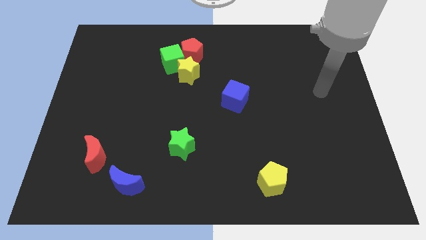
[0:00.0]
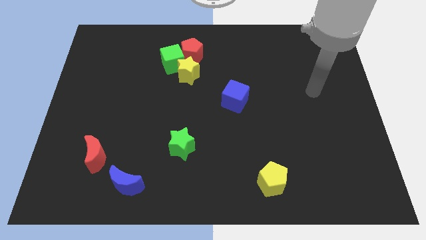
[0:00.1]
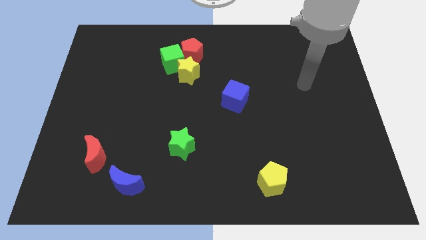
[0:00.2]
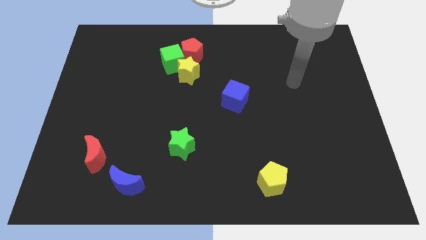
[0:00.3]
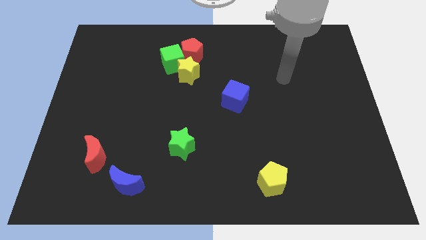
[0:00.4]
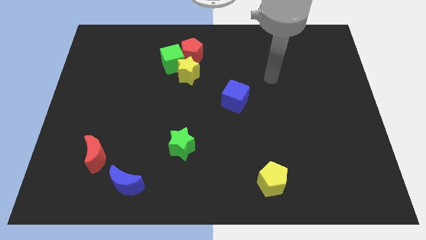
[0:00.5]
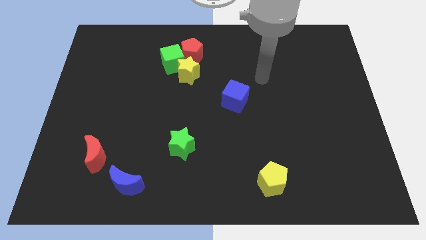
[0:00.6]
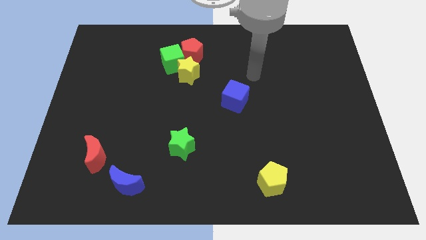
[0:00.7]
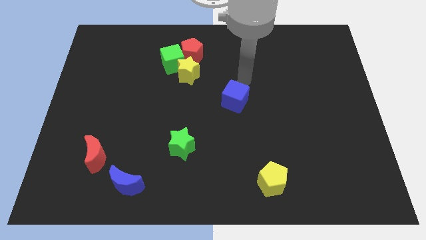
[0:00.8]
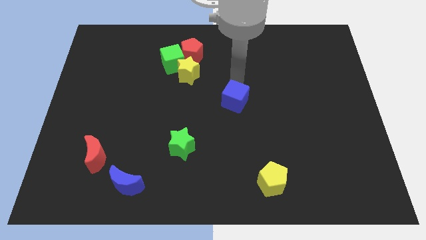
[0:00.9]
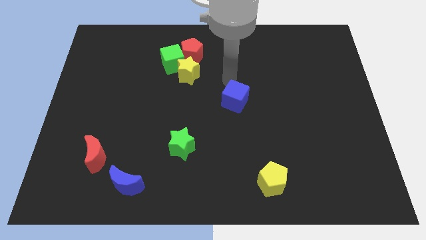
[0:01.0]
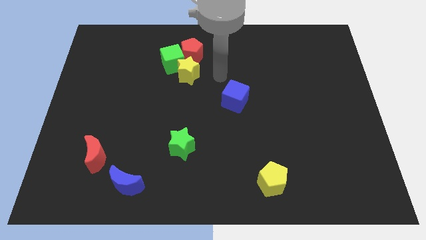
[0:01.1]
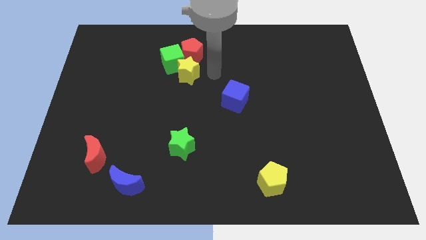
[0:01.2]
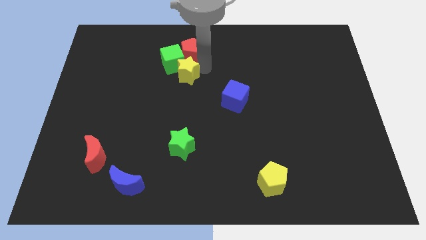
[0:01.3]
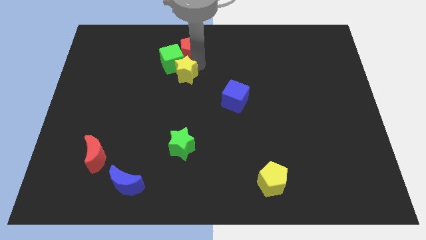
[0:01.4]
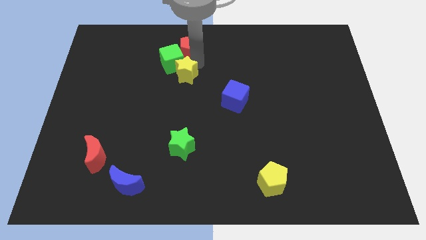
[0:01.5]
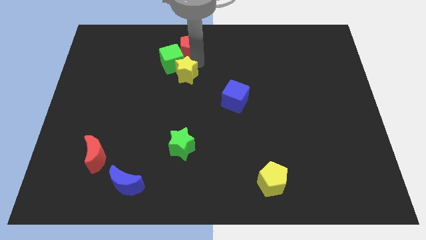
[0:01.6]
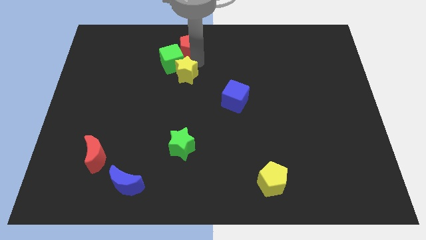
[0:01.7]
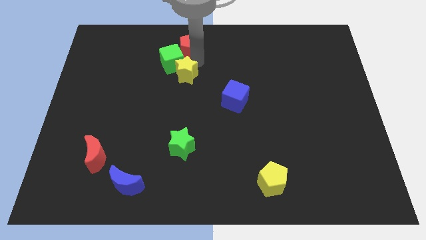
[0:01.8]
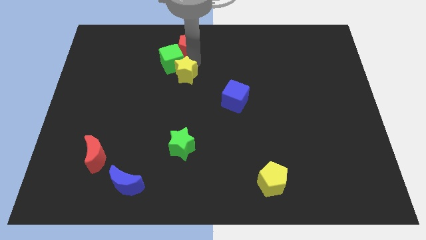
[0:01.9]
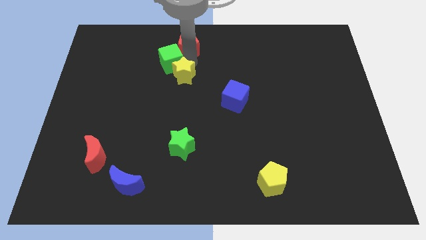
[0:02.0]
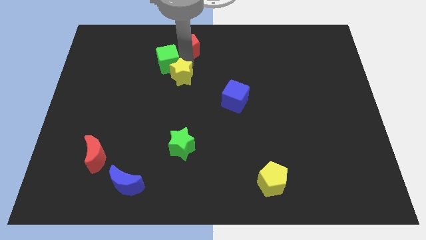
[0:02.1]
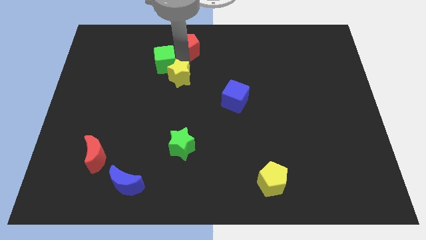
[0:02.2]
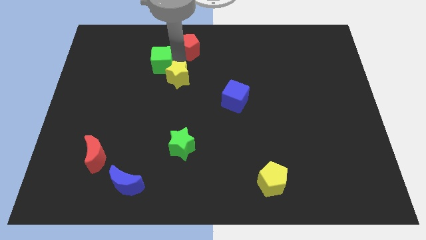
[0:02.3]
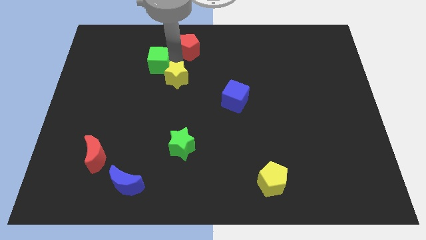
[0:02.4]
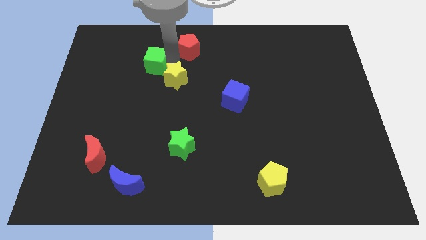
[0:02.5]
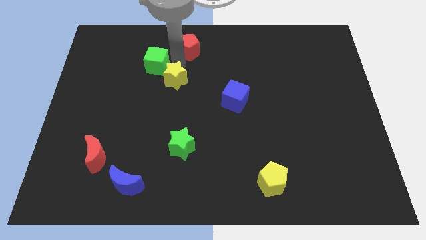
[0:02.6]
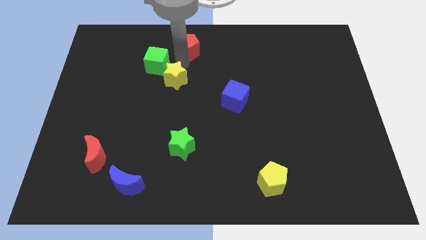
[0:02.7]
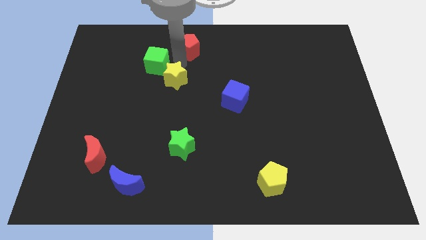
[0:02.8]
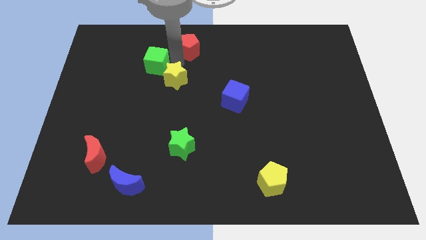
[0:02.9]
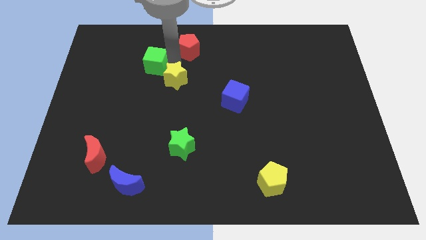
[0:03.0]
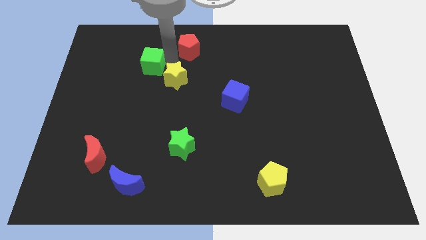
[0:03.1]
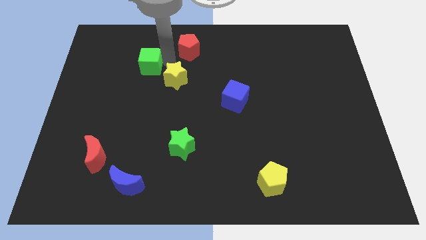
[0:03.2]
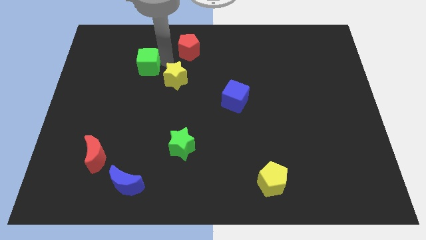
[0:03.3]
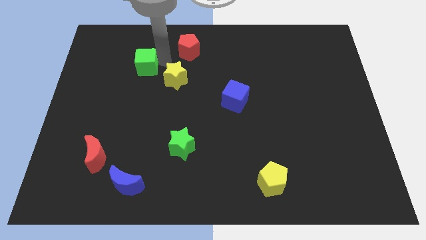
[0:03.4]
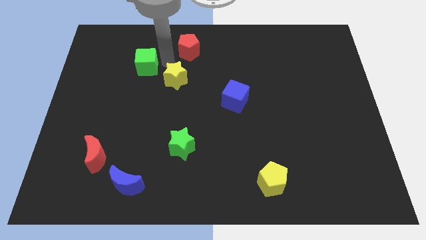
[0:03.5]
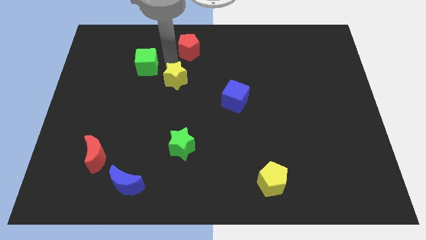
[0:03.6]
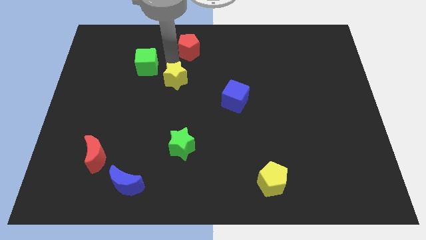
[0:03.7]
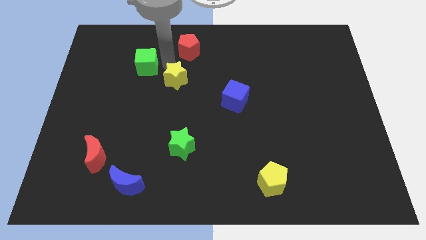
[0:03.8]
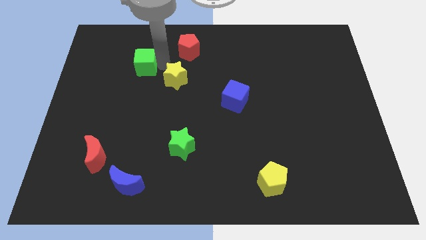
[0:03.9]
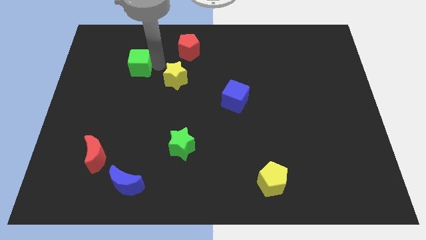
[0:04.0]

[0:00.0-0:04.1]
pull the green cube apart from the red pentagon and yellow star

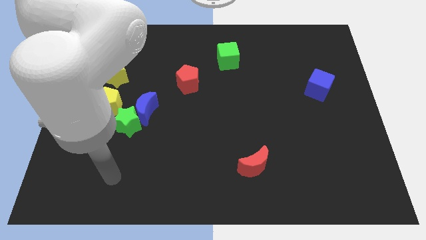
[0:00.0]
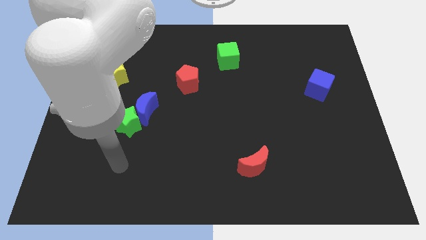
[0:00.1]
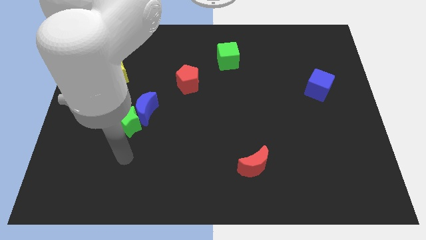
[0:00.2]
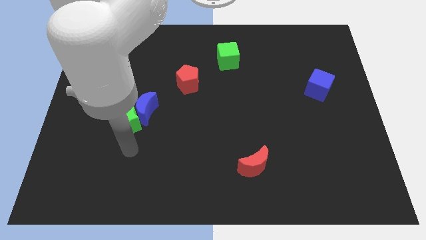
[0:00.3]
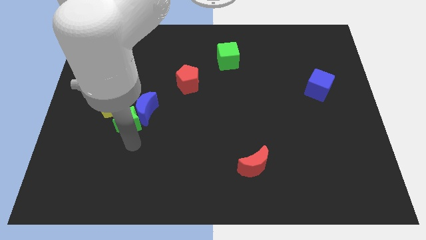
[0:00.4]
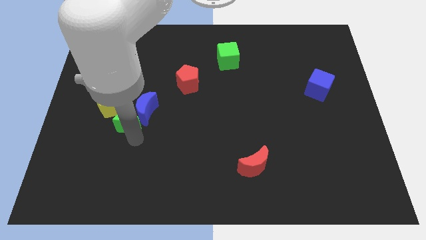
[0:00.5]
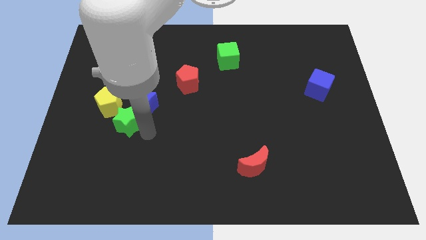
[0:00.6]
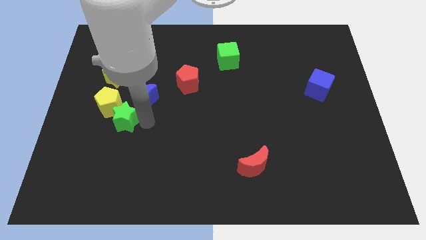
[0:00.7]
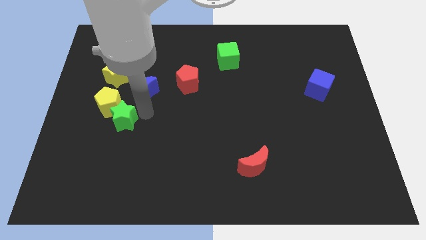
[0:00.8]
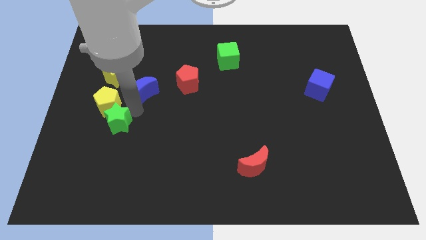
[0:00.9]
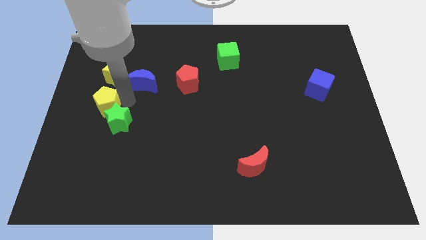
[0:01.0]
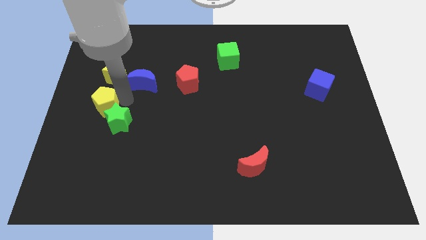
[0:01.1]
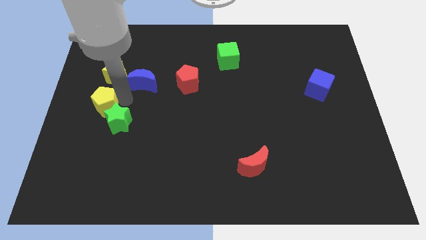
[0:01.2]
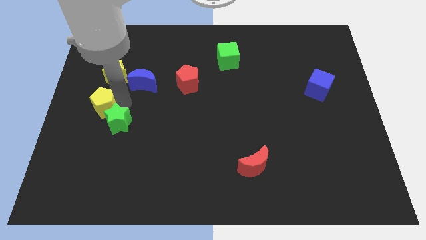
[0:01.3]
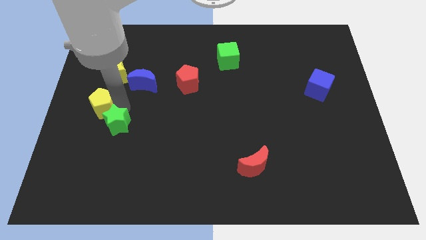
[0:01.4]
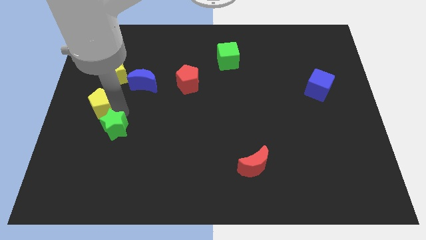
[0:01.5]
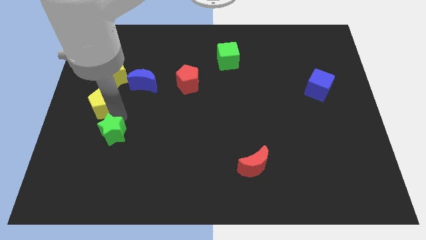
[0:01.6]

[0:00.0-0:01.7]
separate the green star from the blue moon and yellow pentagon

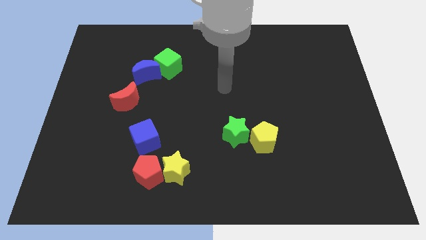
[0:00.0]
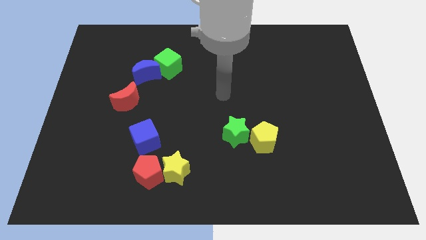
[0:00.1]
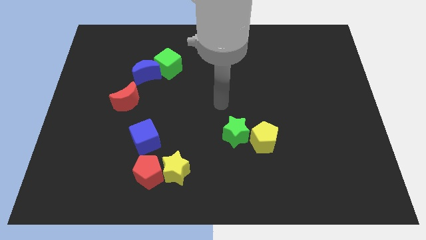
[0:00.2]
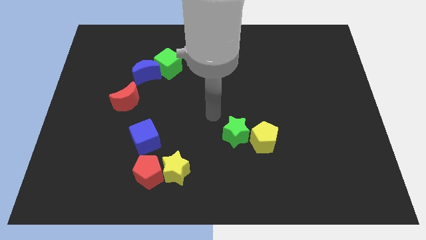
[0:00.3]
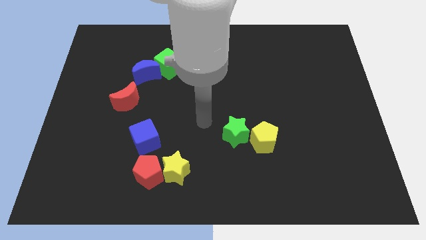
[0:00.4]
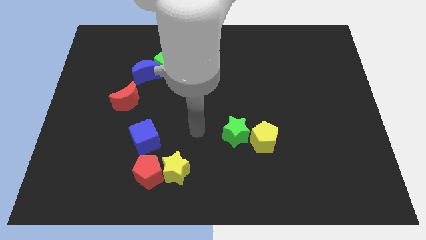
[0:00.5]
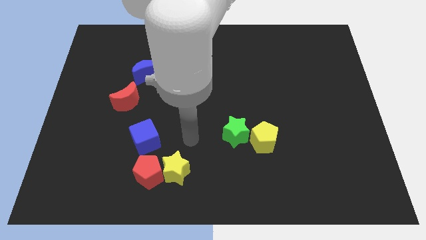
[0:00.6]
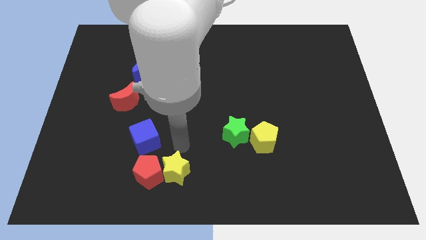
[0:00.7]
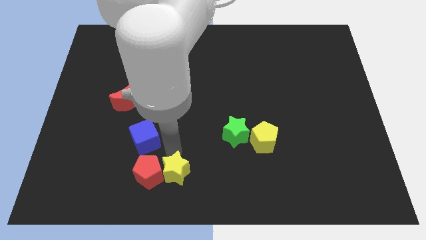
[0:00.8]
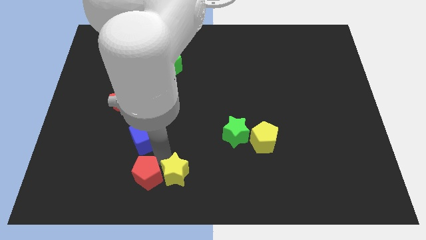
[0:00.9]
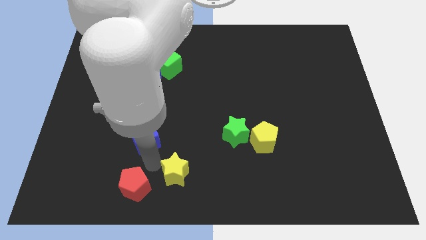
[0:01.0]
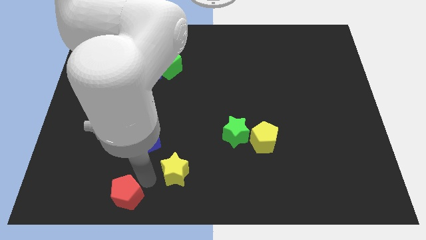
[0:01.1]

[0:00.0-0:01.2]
separate the yellow star from the red pentagon

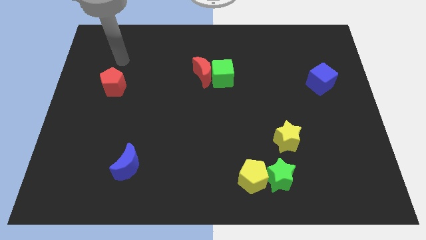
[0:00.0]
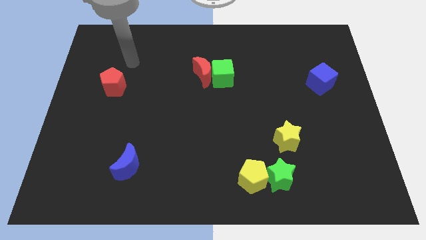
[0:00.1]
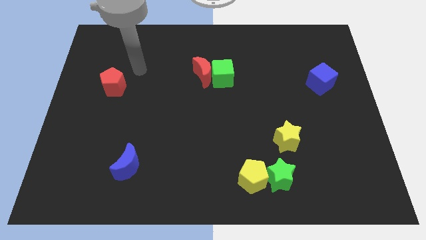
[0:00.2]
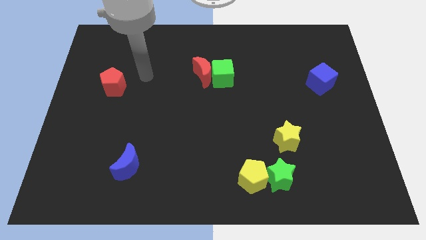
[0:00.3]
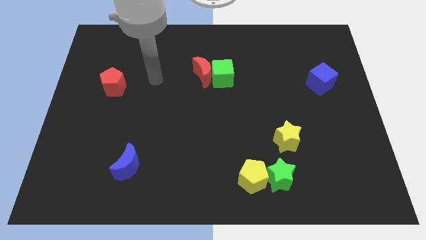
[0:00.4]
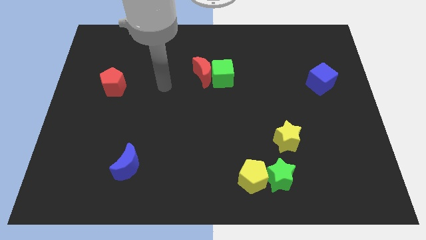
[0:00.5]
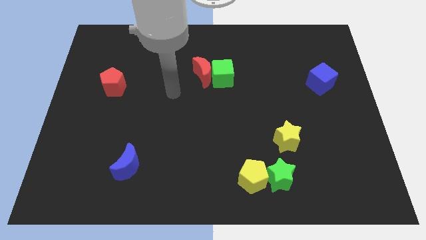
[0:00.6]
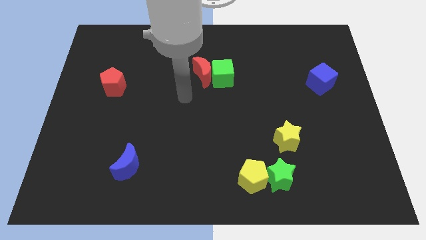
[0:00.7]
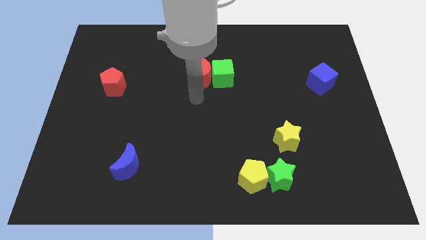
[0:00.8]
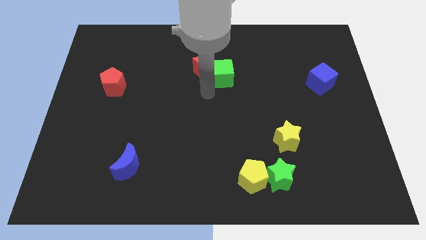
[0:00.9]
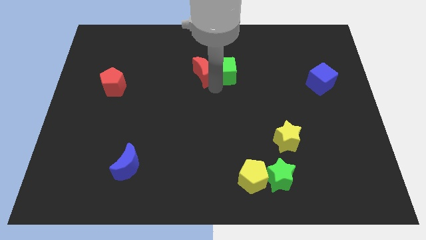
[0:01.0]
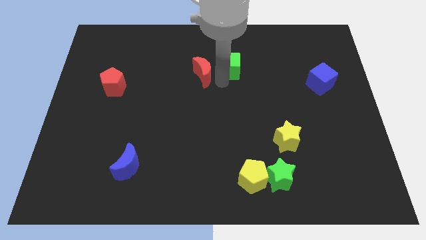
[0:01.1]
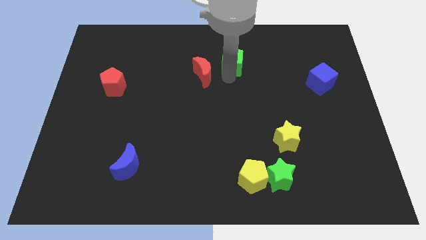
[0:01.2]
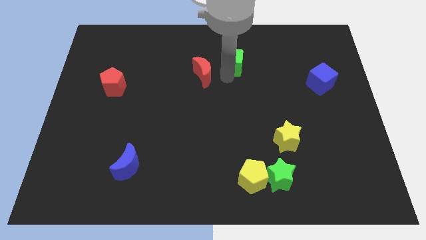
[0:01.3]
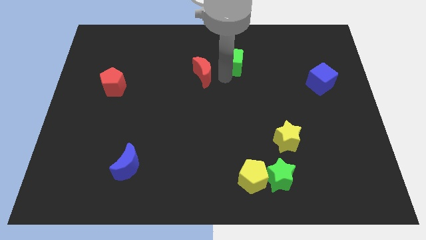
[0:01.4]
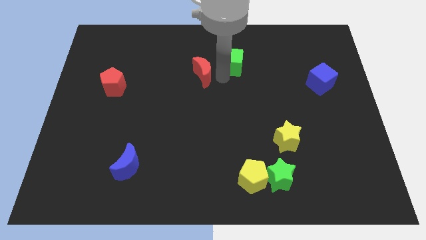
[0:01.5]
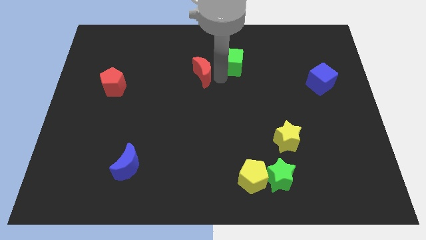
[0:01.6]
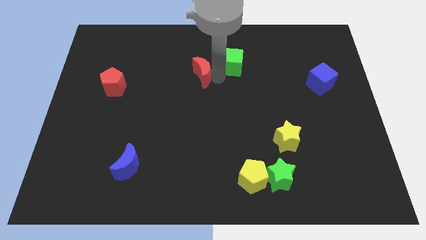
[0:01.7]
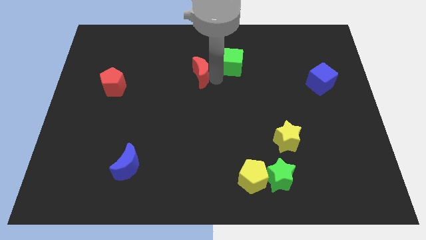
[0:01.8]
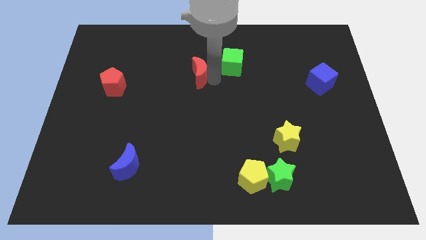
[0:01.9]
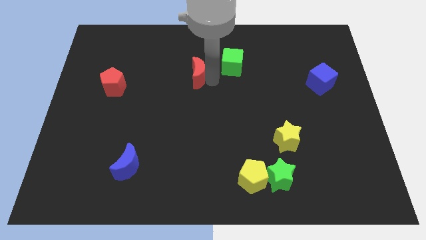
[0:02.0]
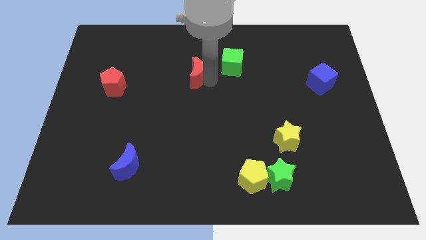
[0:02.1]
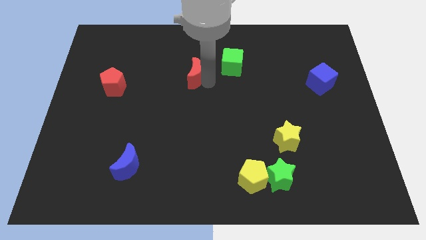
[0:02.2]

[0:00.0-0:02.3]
move the red moon away from the green cube

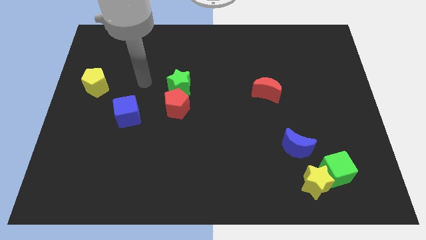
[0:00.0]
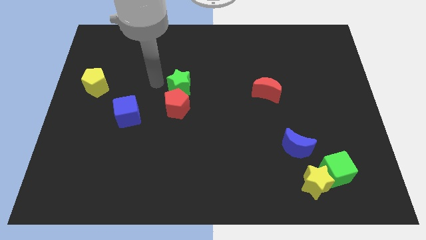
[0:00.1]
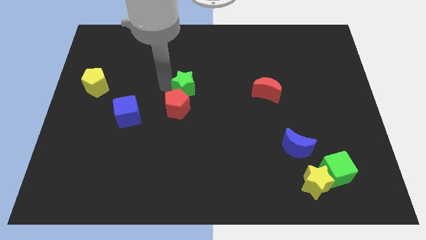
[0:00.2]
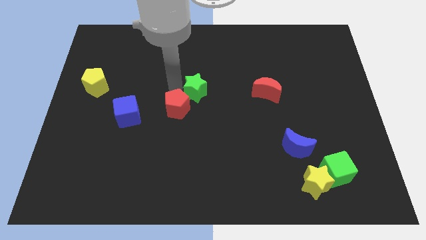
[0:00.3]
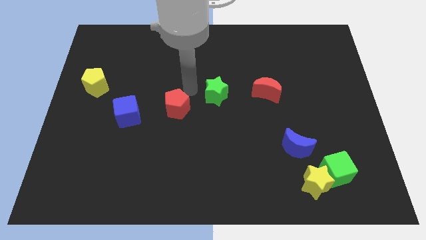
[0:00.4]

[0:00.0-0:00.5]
move the red pentagon away from the green star
